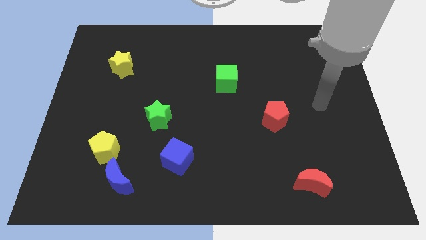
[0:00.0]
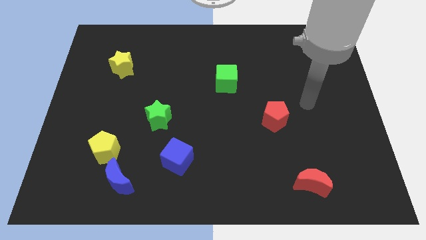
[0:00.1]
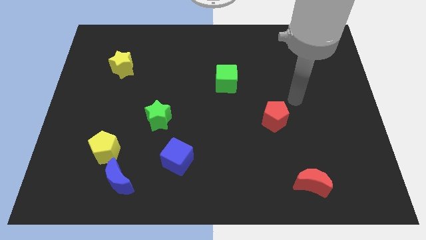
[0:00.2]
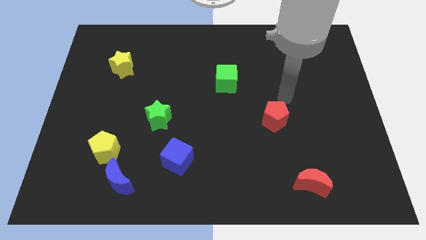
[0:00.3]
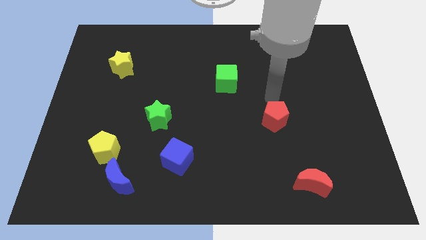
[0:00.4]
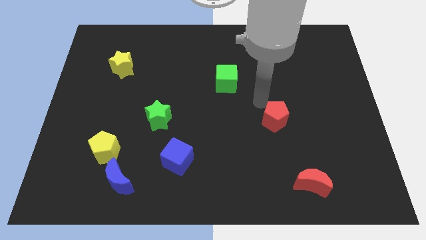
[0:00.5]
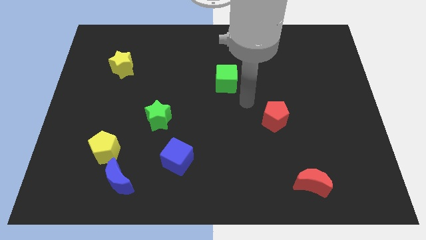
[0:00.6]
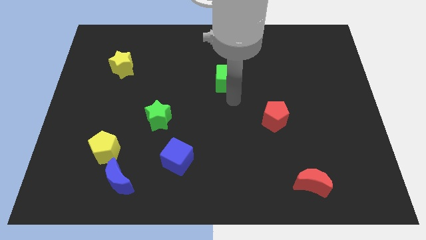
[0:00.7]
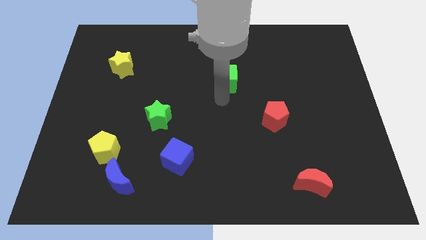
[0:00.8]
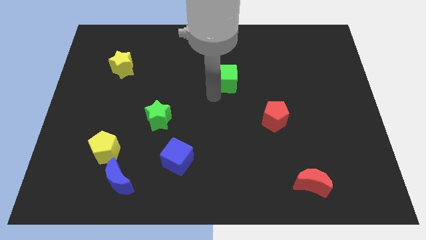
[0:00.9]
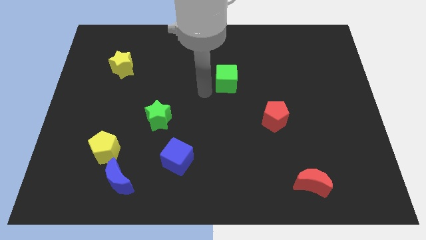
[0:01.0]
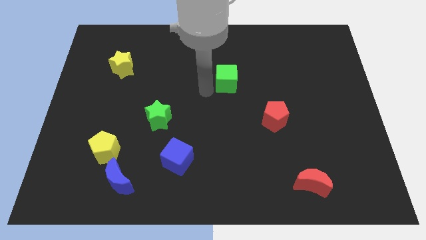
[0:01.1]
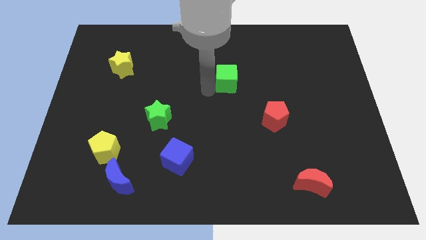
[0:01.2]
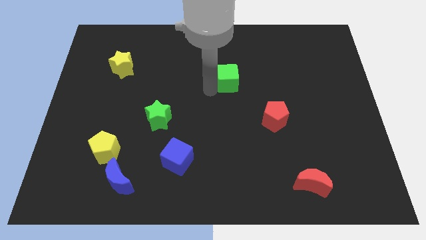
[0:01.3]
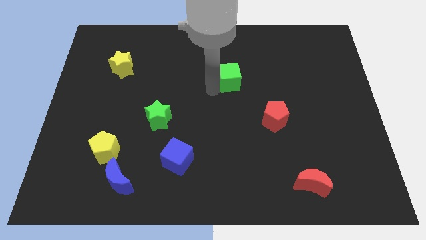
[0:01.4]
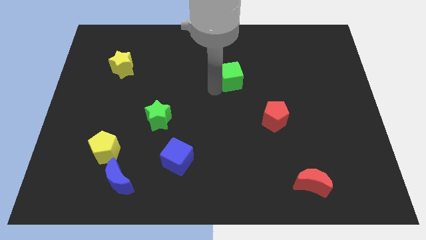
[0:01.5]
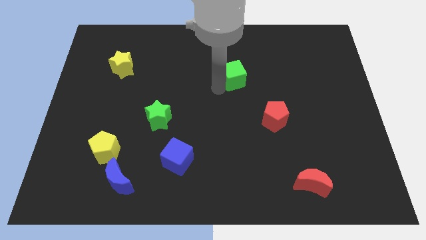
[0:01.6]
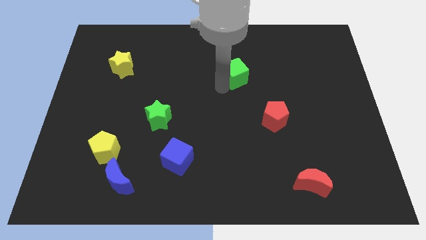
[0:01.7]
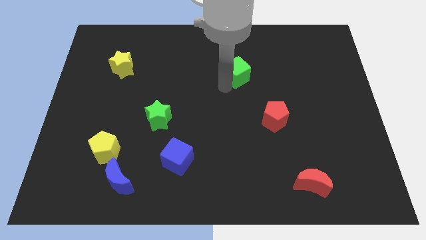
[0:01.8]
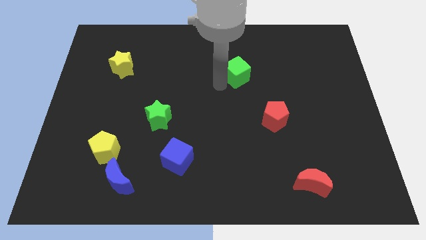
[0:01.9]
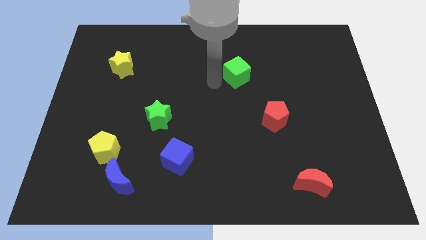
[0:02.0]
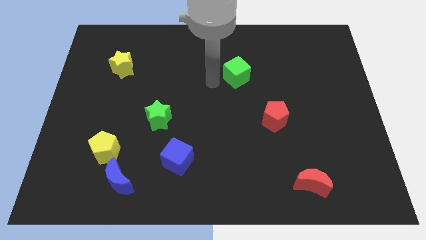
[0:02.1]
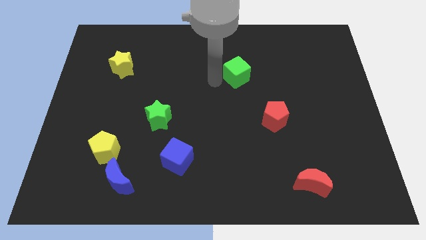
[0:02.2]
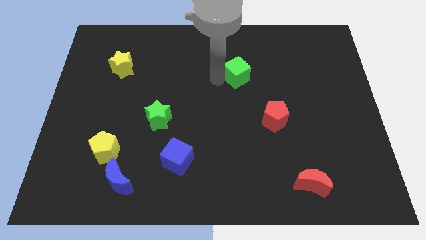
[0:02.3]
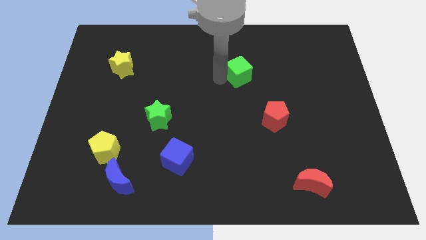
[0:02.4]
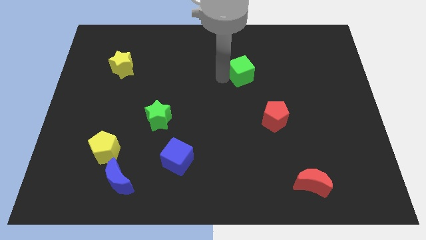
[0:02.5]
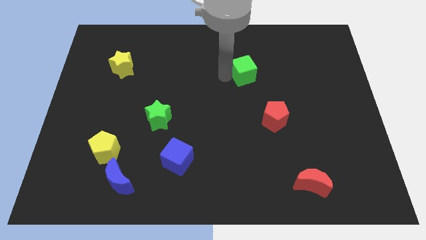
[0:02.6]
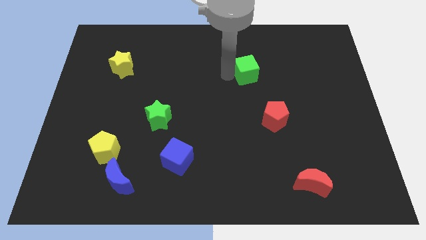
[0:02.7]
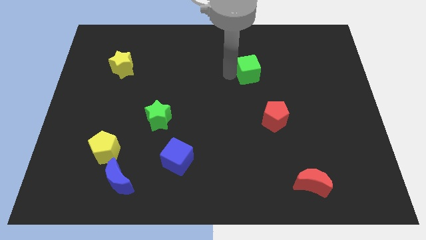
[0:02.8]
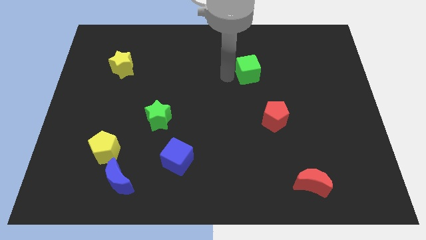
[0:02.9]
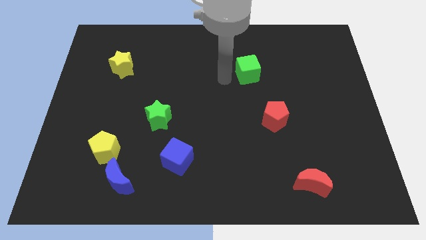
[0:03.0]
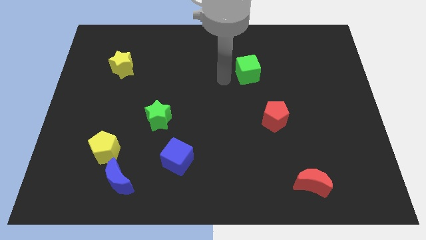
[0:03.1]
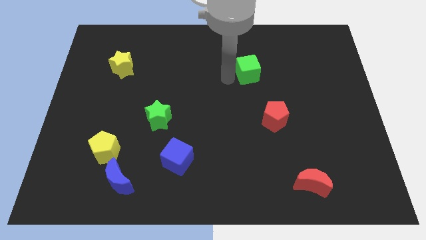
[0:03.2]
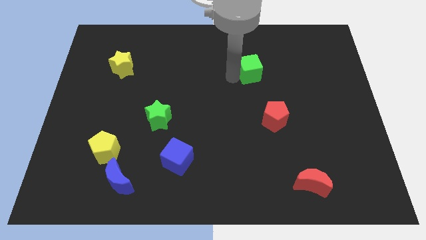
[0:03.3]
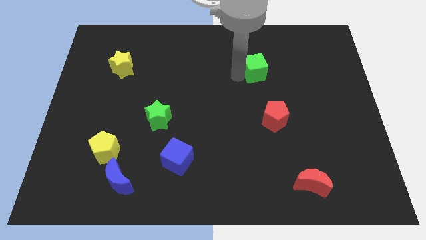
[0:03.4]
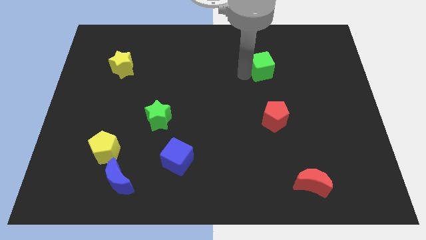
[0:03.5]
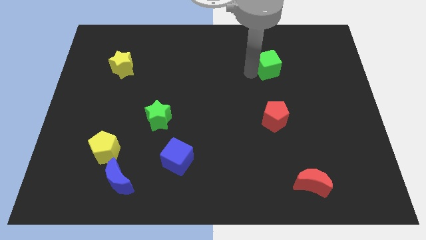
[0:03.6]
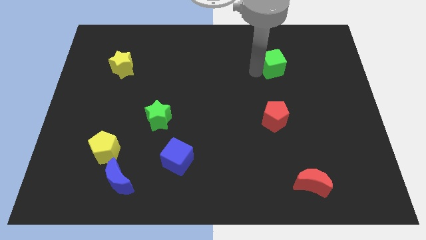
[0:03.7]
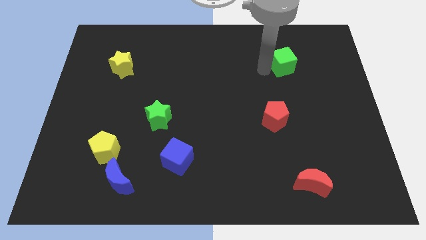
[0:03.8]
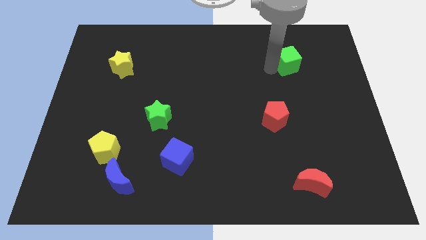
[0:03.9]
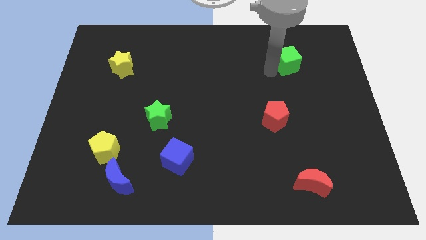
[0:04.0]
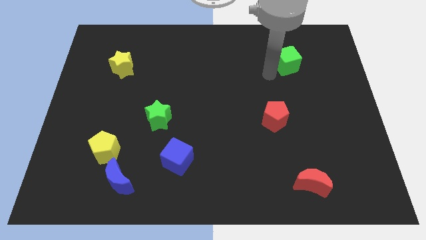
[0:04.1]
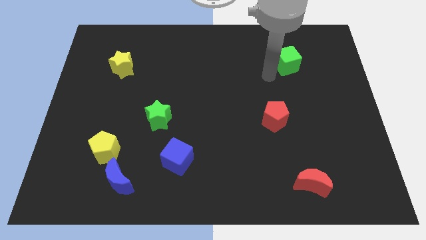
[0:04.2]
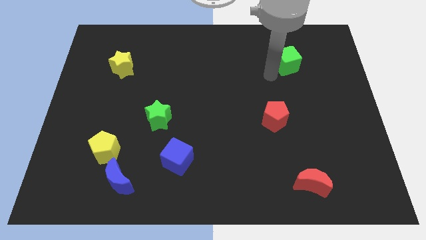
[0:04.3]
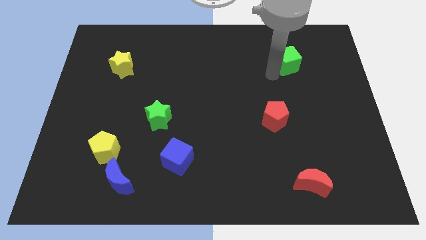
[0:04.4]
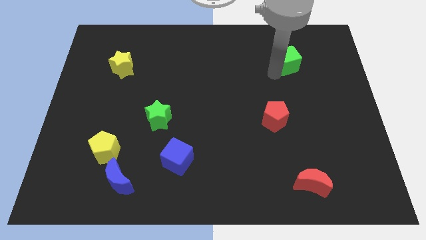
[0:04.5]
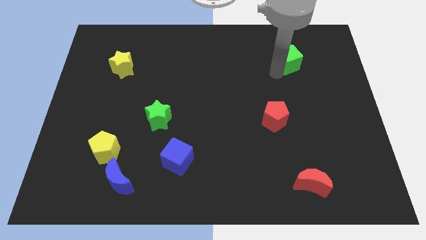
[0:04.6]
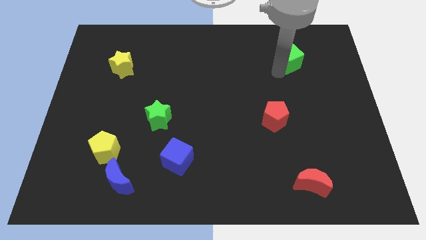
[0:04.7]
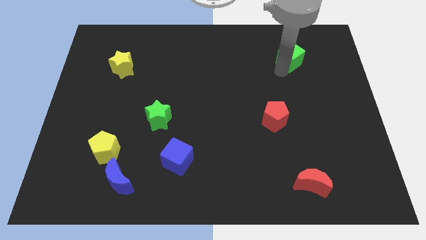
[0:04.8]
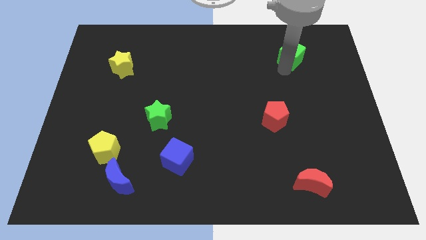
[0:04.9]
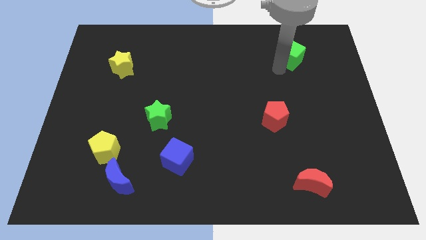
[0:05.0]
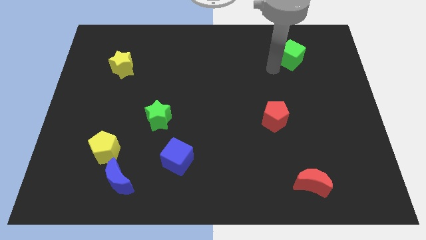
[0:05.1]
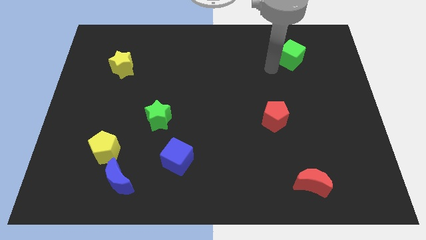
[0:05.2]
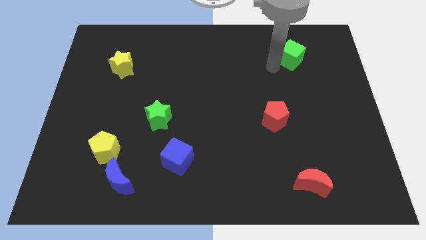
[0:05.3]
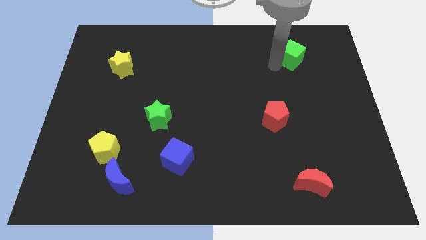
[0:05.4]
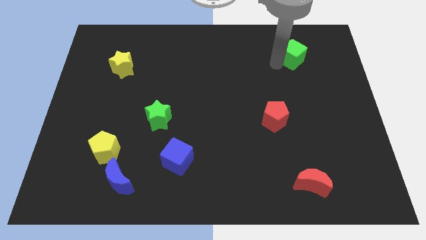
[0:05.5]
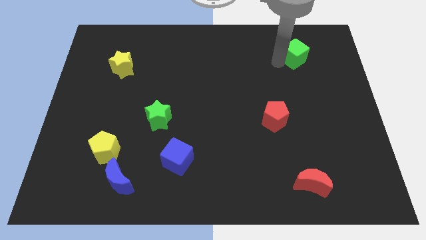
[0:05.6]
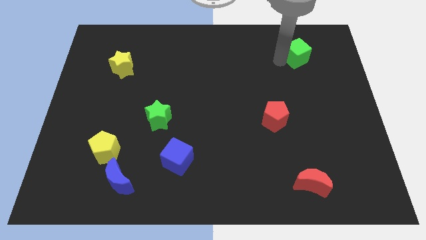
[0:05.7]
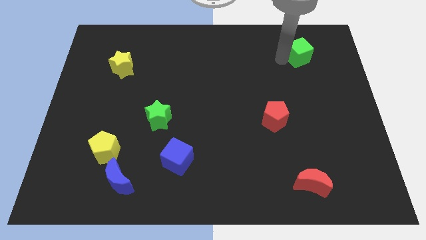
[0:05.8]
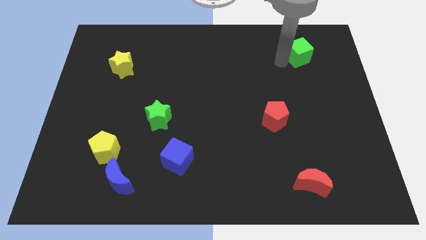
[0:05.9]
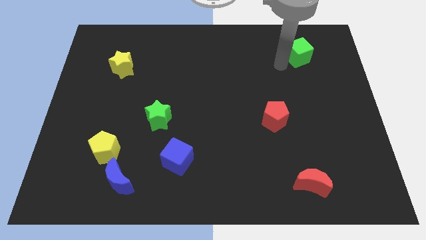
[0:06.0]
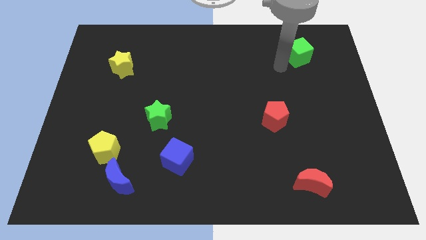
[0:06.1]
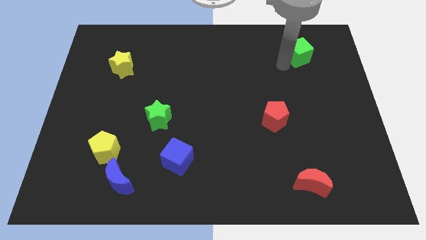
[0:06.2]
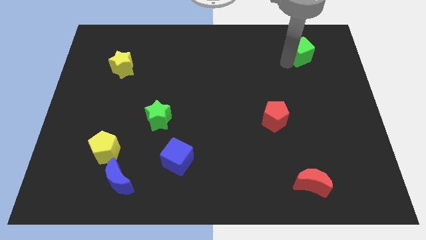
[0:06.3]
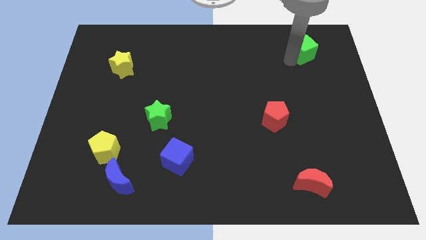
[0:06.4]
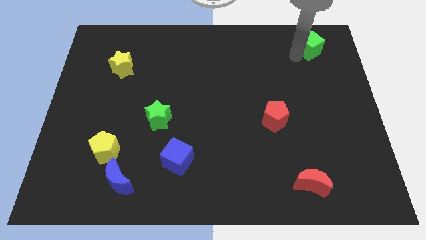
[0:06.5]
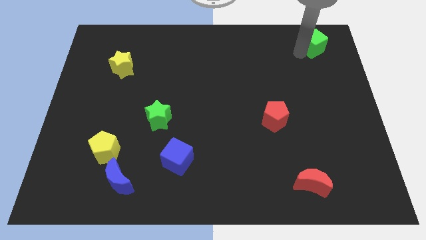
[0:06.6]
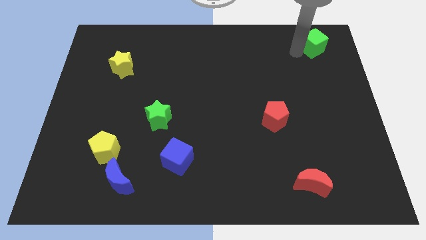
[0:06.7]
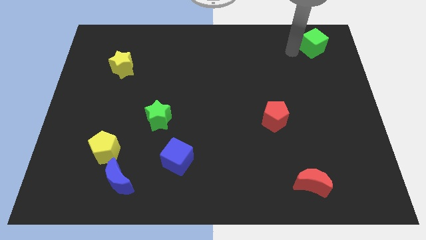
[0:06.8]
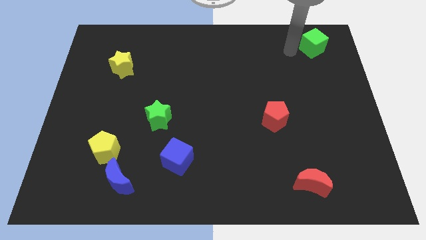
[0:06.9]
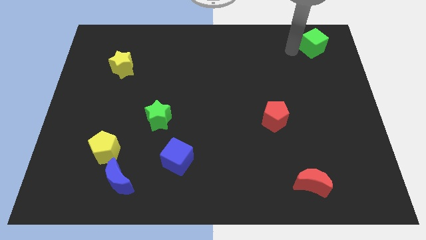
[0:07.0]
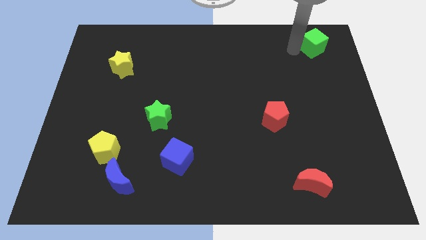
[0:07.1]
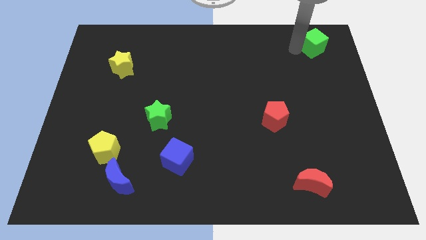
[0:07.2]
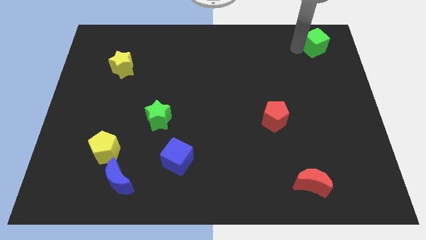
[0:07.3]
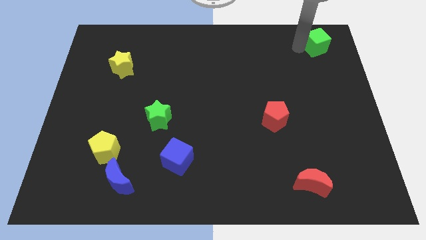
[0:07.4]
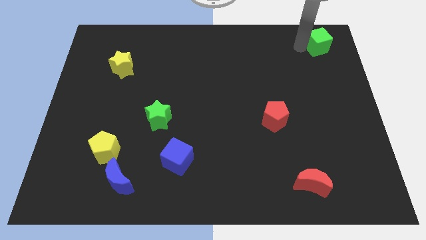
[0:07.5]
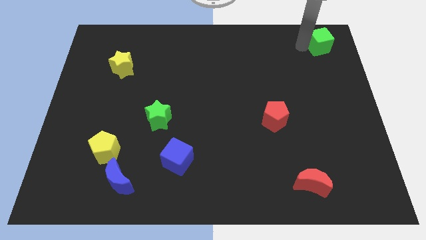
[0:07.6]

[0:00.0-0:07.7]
move the green cube to the upper right corner
